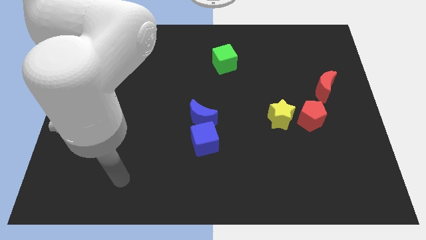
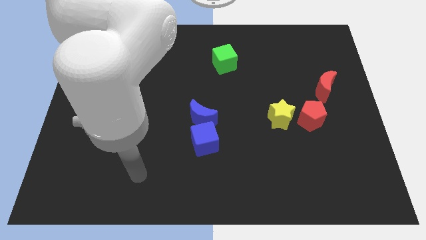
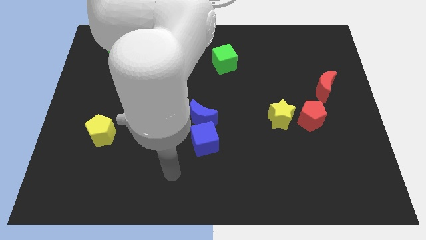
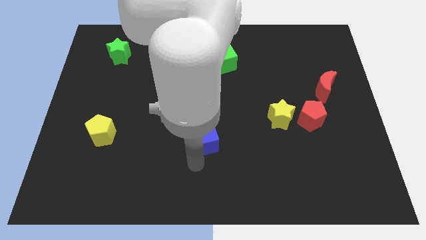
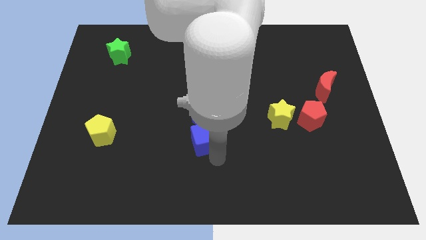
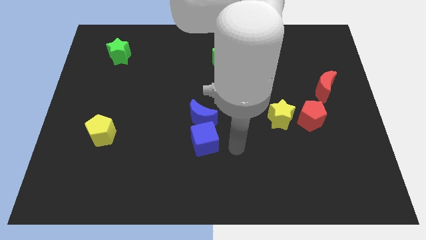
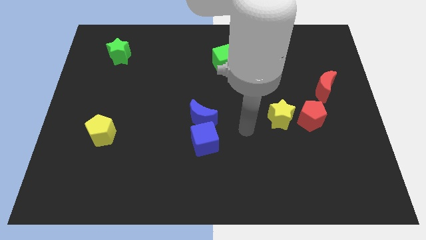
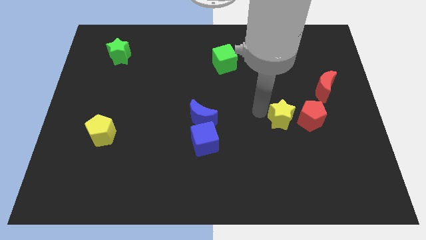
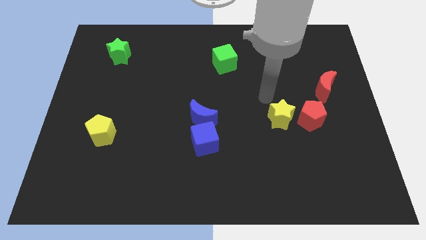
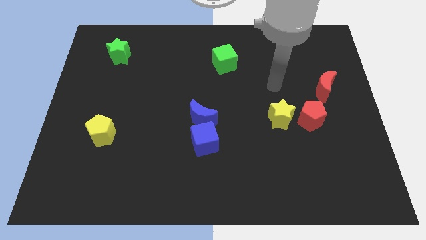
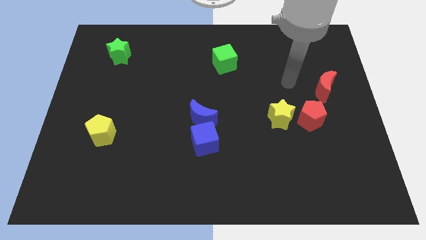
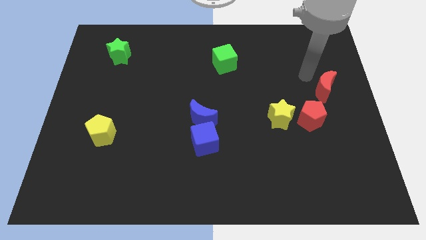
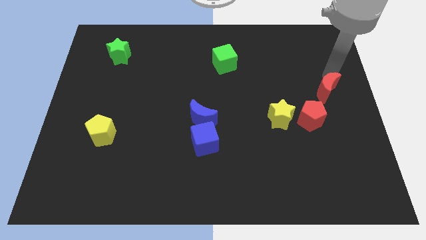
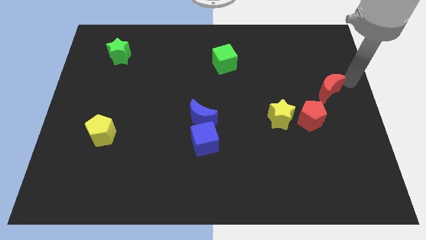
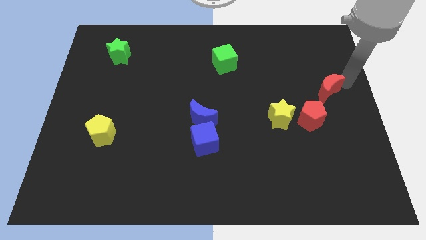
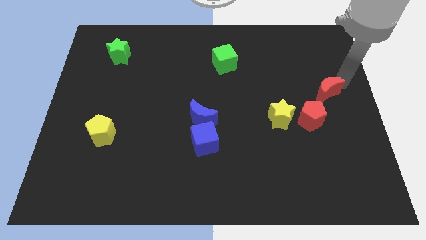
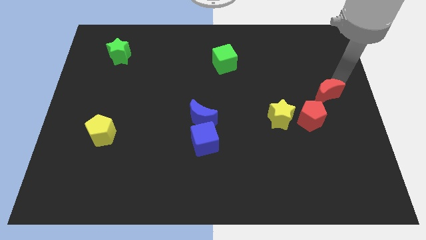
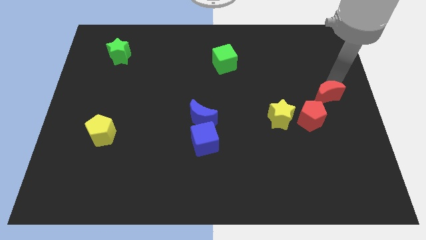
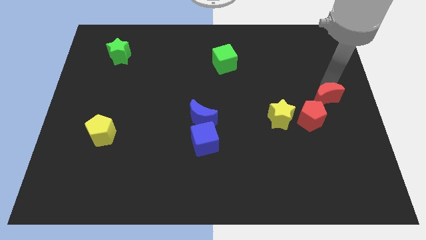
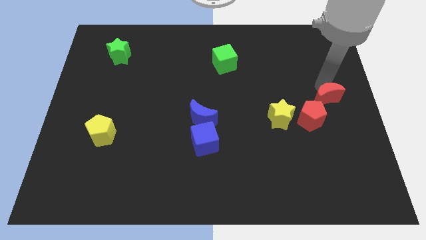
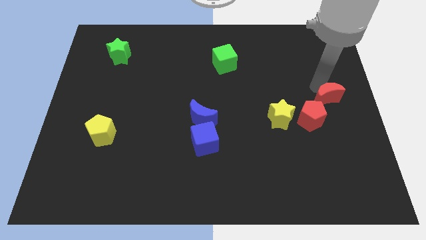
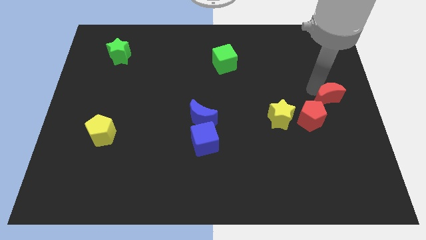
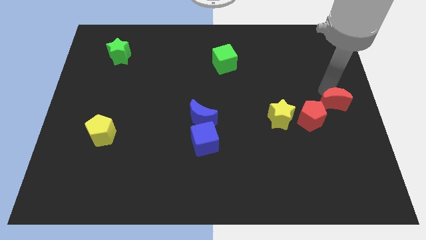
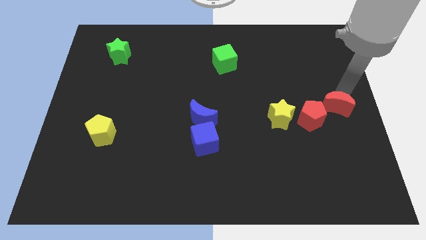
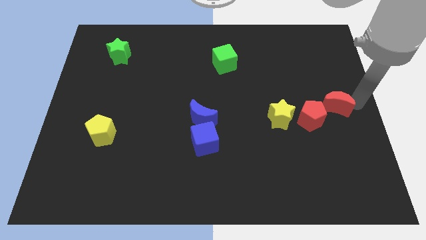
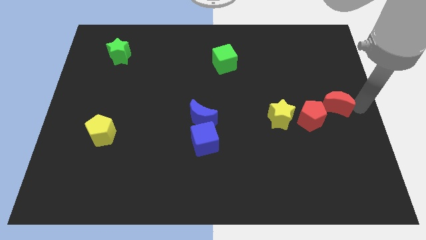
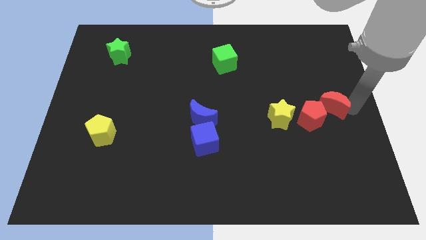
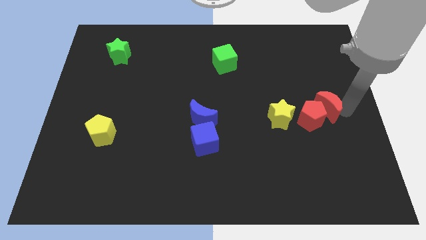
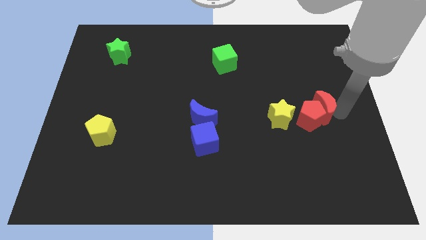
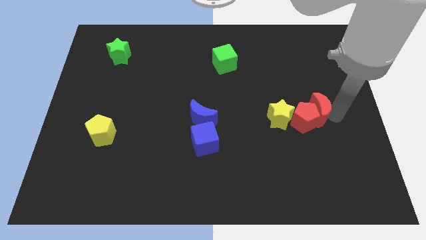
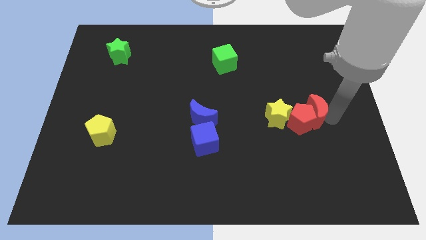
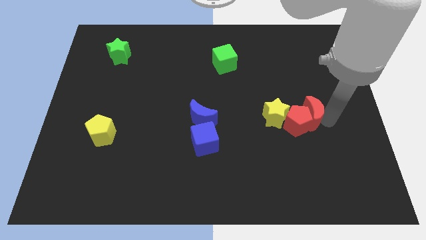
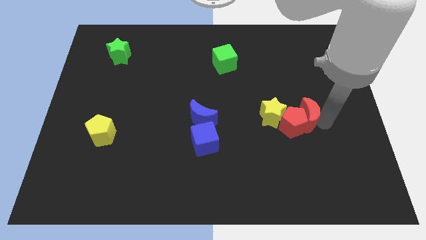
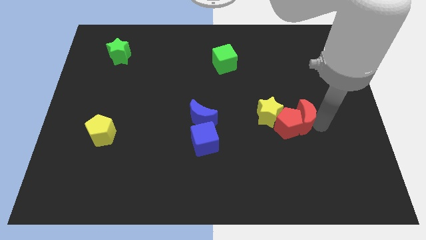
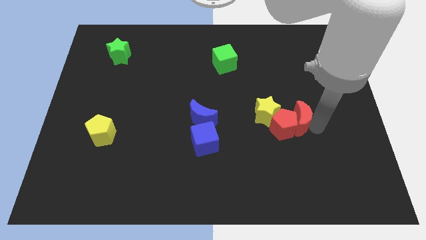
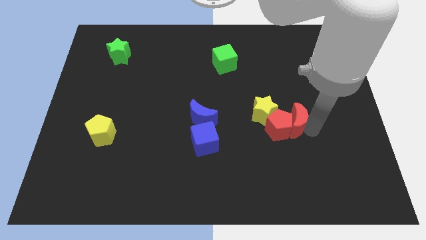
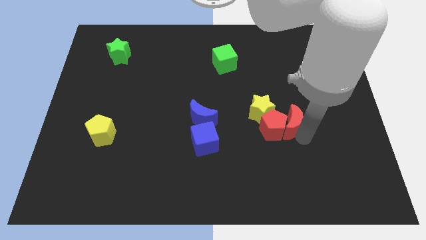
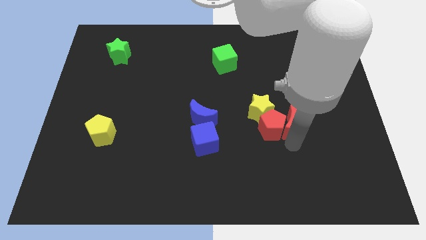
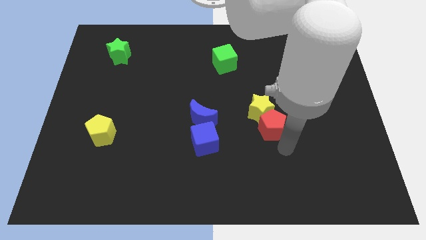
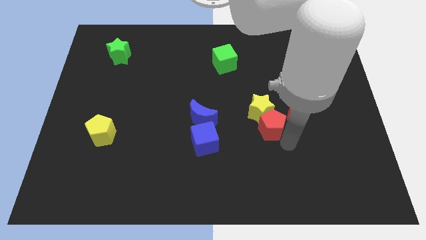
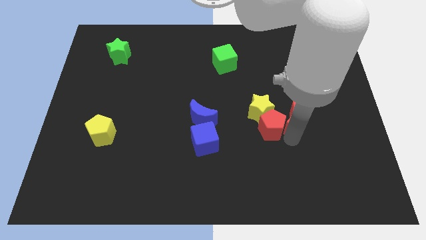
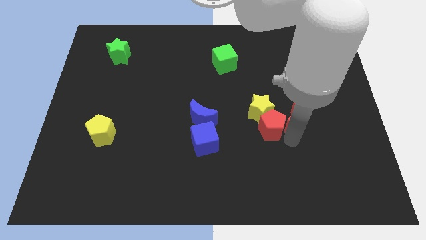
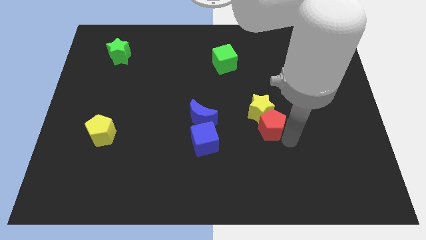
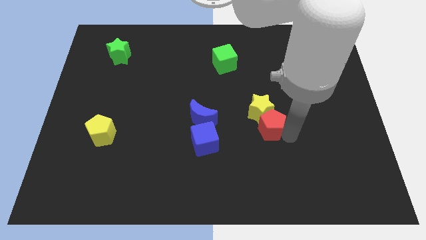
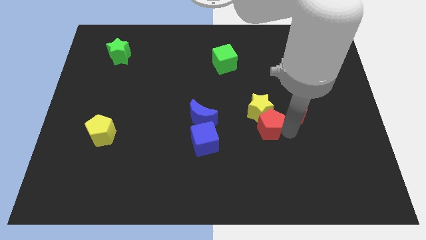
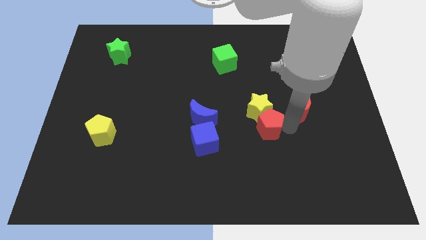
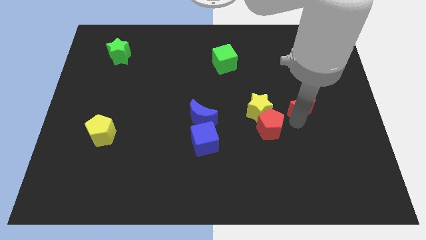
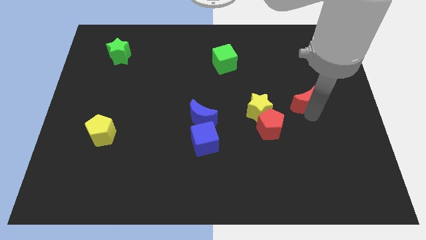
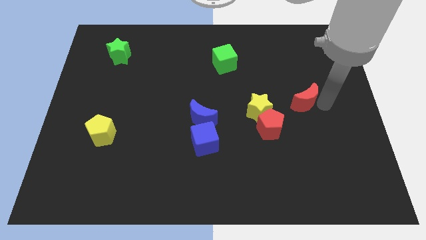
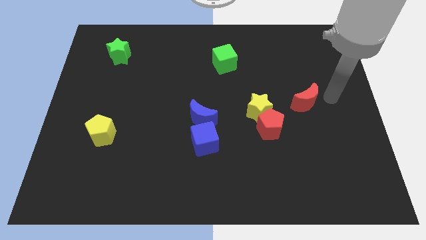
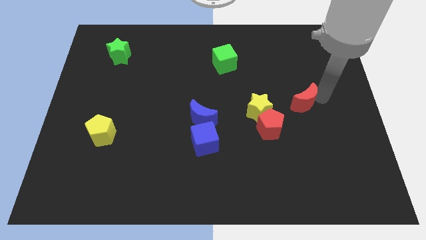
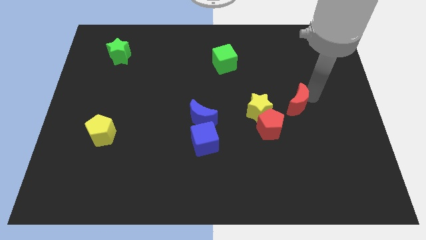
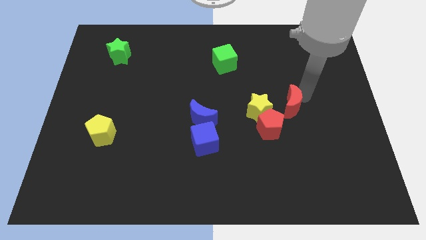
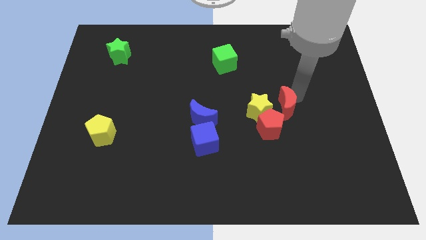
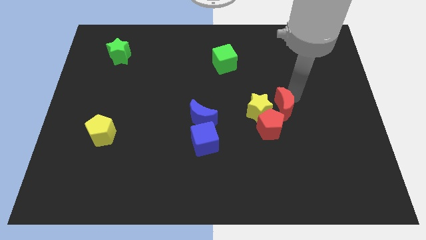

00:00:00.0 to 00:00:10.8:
move the red moon to the yellow star

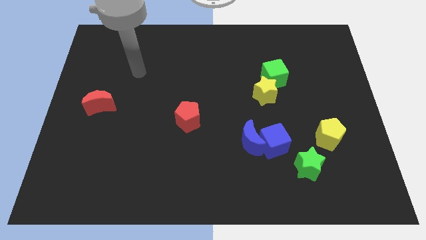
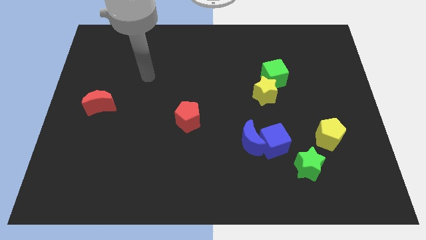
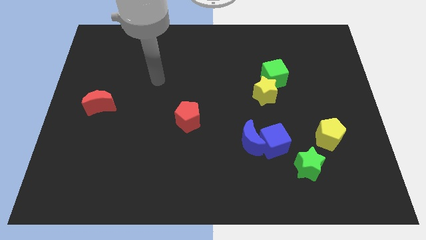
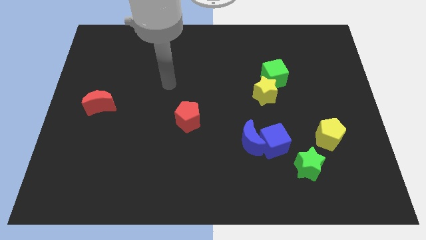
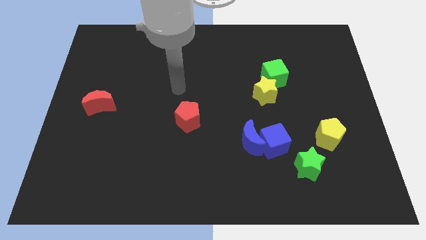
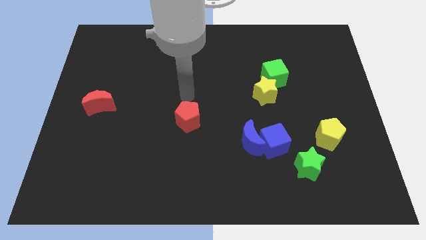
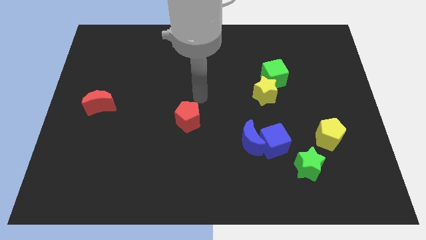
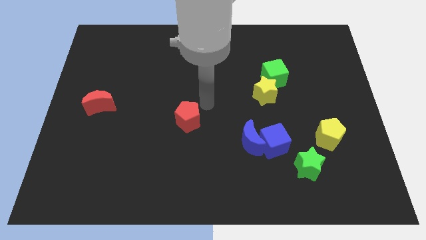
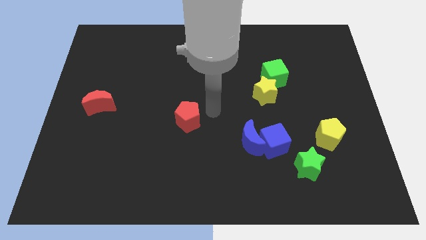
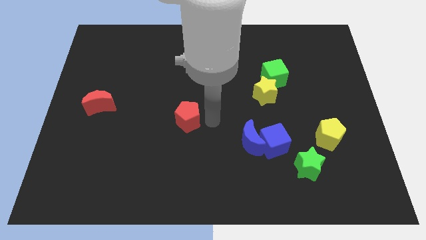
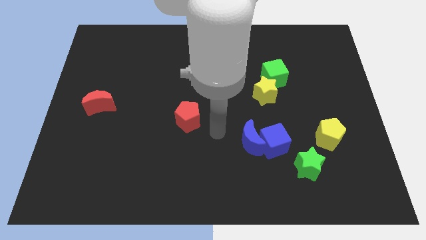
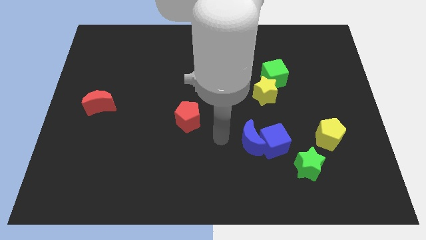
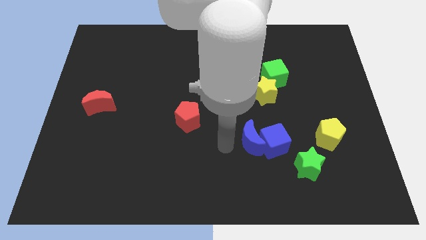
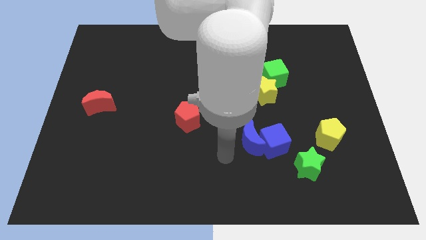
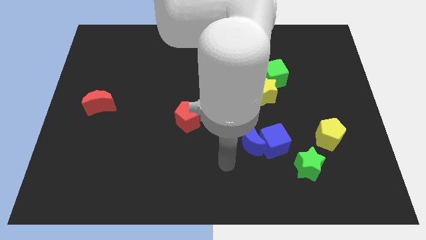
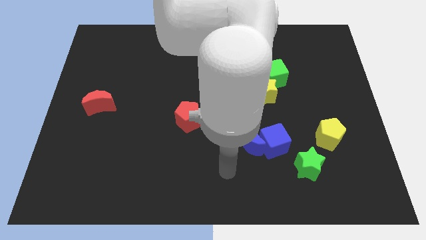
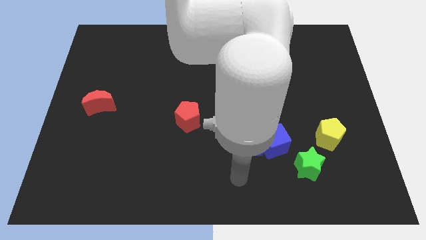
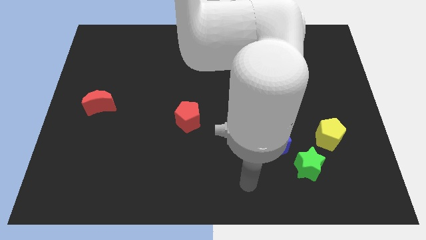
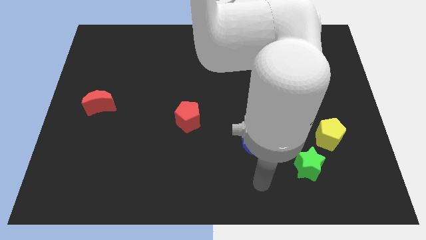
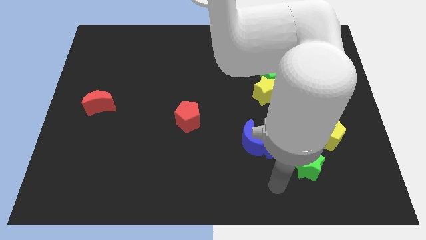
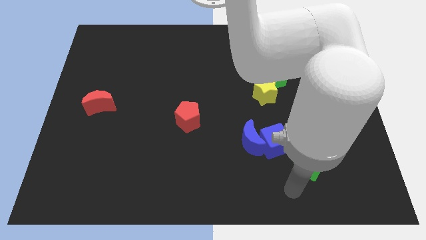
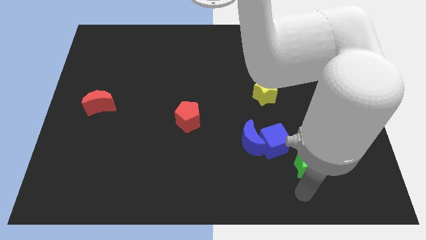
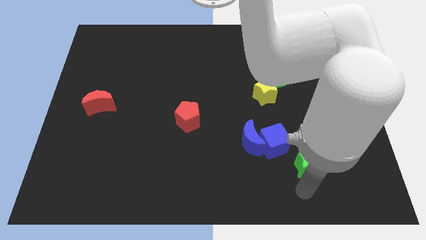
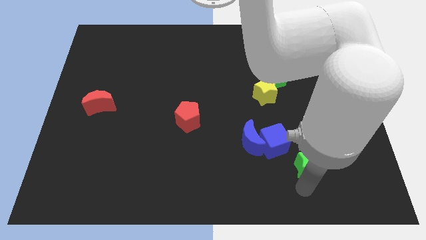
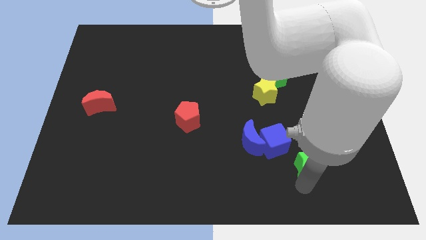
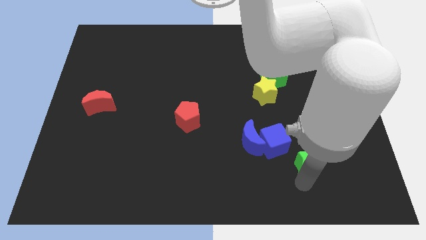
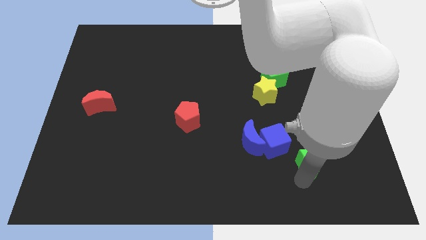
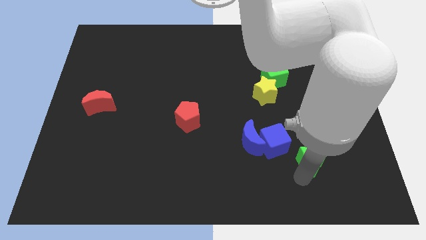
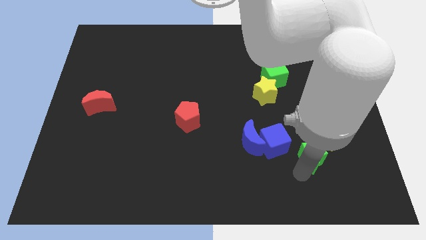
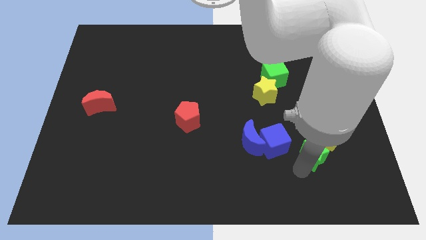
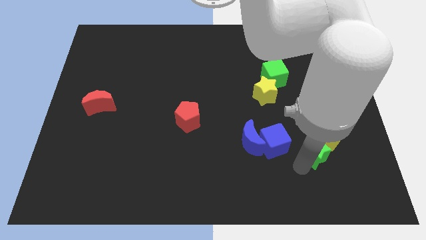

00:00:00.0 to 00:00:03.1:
push the green star towards the yellow pentagon
